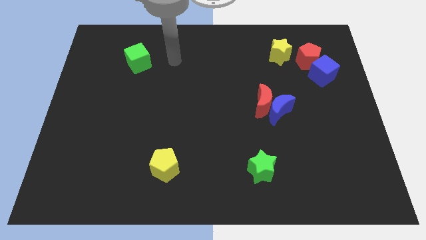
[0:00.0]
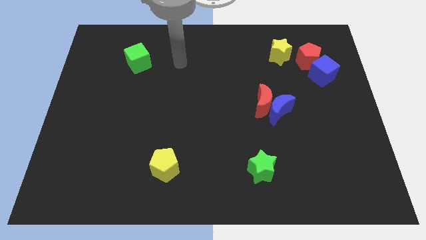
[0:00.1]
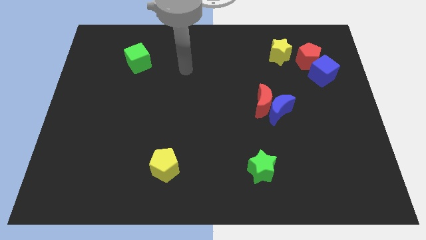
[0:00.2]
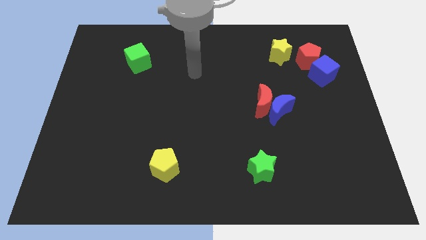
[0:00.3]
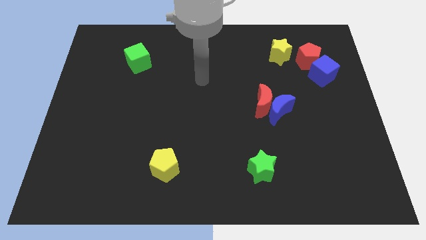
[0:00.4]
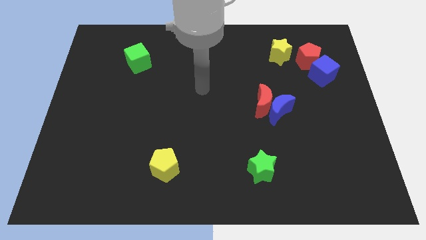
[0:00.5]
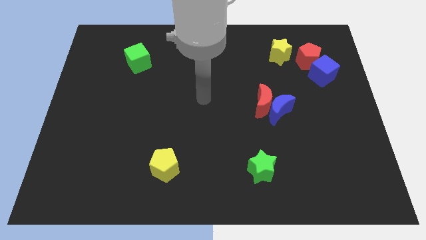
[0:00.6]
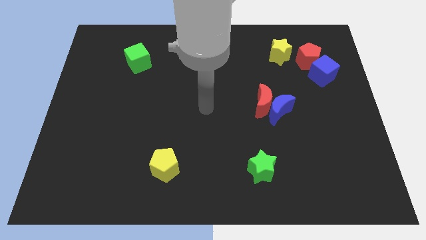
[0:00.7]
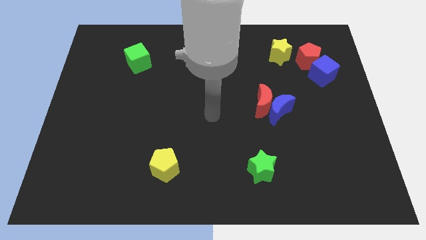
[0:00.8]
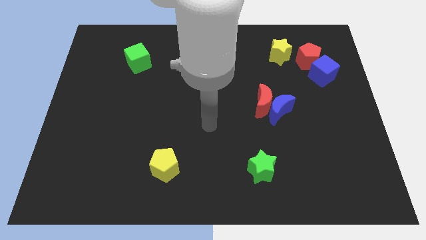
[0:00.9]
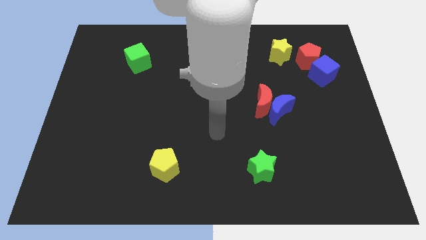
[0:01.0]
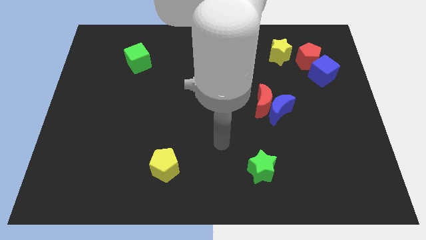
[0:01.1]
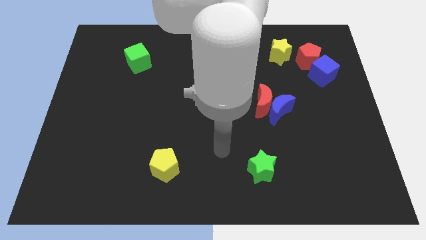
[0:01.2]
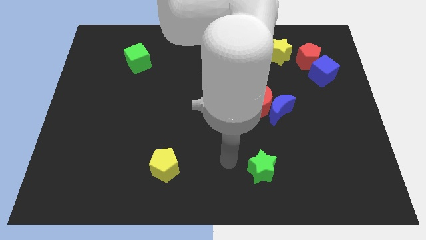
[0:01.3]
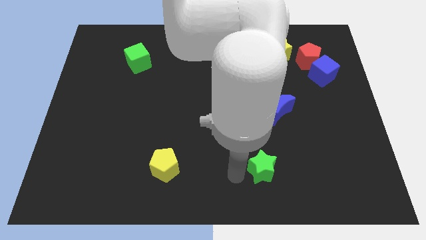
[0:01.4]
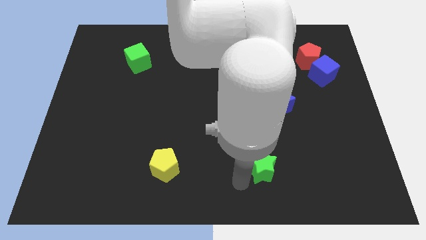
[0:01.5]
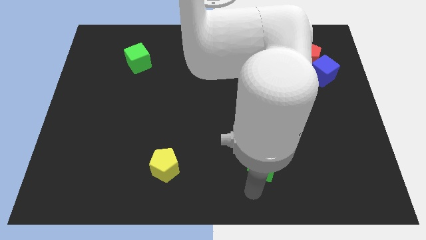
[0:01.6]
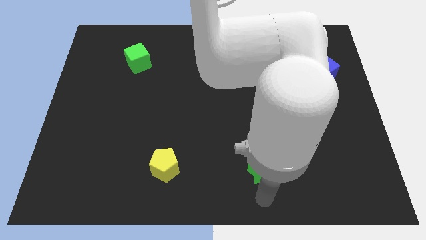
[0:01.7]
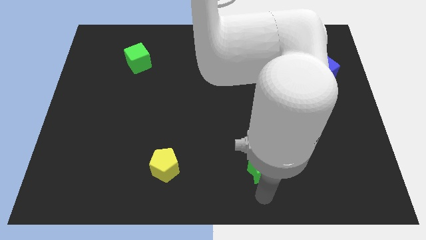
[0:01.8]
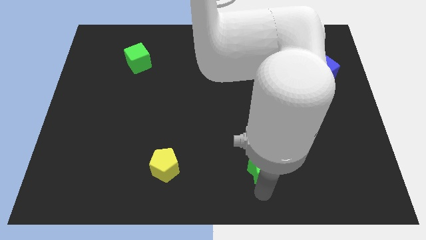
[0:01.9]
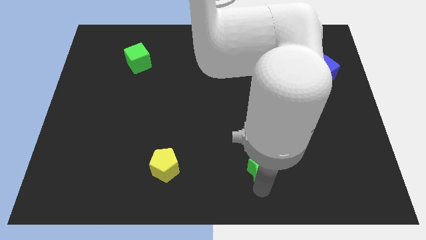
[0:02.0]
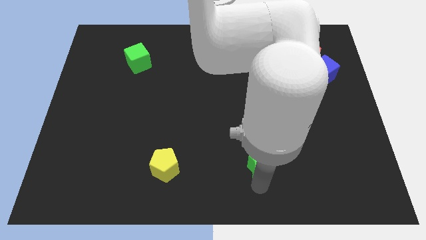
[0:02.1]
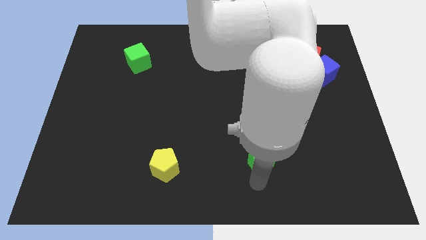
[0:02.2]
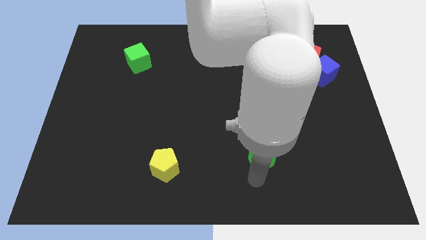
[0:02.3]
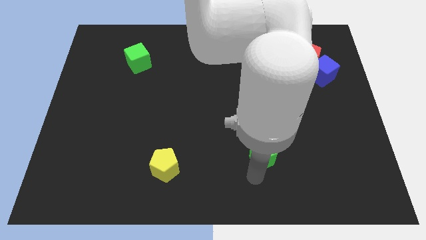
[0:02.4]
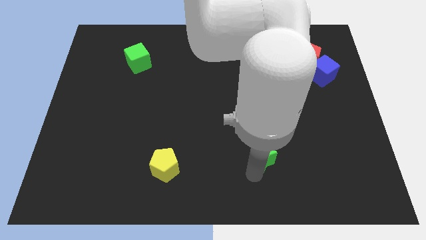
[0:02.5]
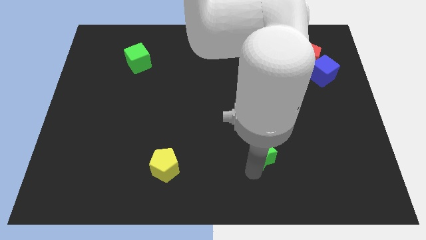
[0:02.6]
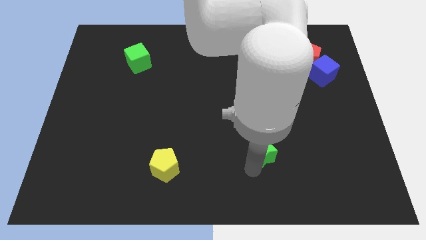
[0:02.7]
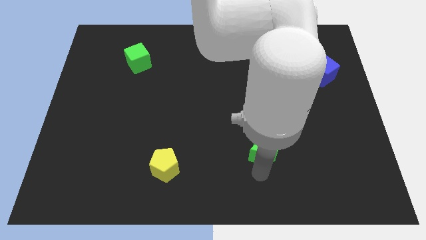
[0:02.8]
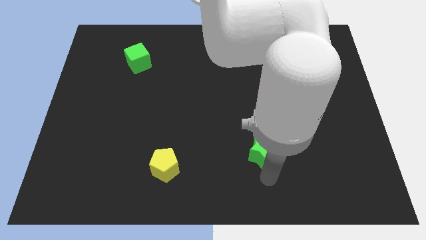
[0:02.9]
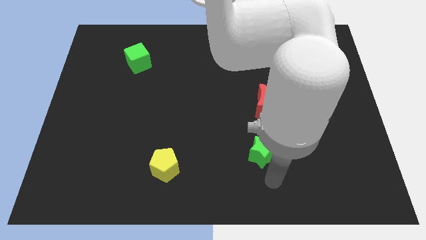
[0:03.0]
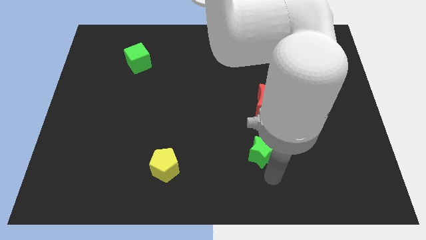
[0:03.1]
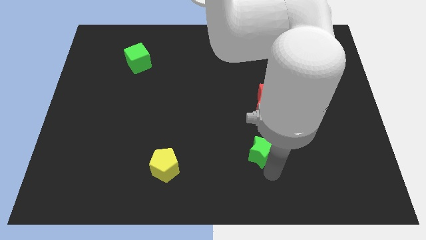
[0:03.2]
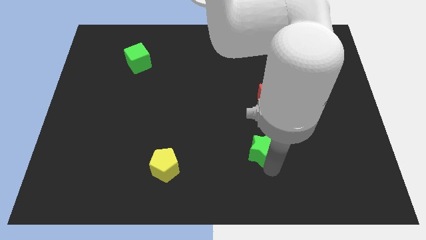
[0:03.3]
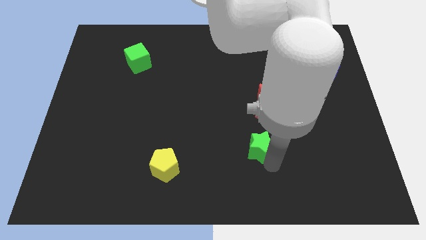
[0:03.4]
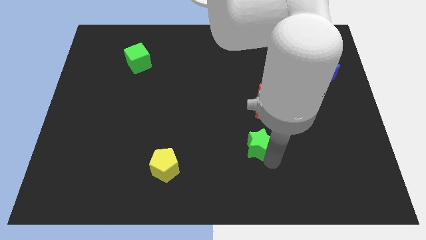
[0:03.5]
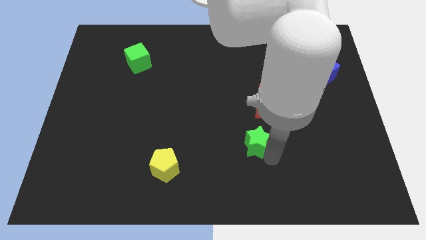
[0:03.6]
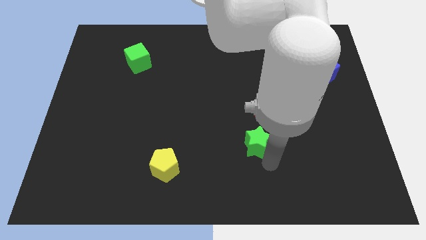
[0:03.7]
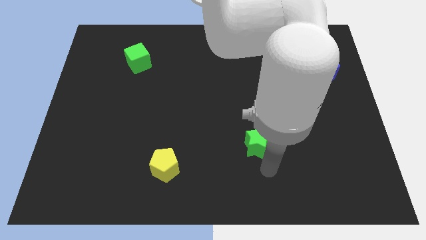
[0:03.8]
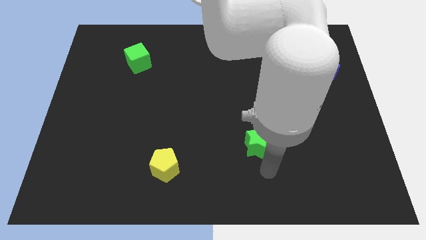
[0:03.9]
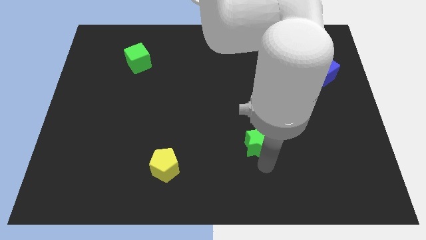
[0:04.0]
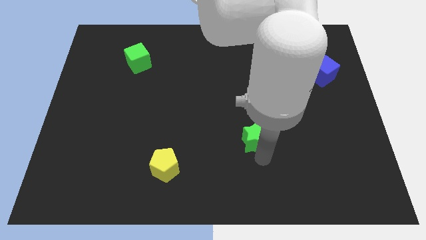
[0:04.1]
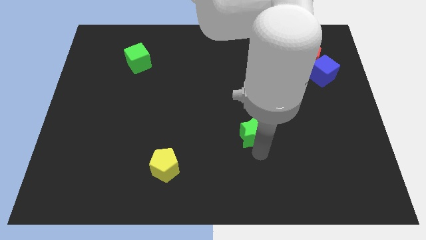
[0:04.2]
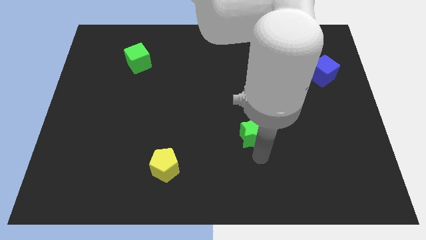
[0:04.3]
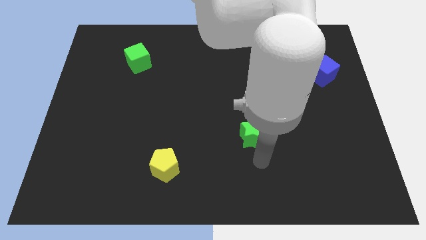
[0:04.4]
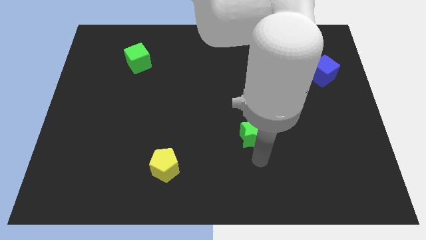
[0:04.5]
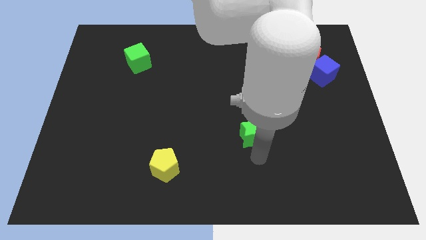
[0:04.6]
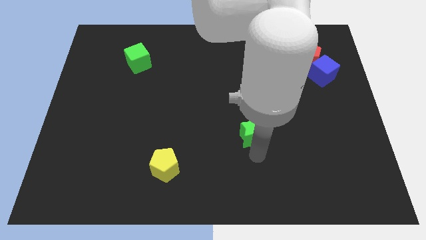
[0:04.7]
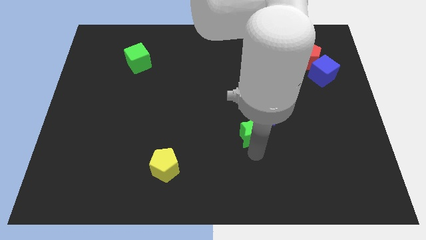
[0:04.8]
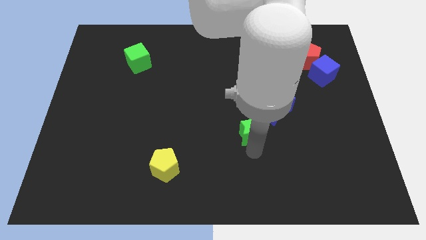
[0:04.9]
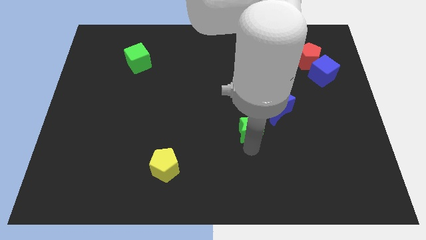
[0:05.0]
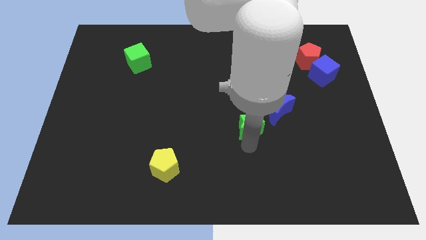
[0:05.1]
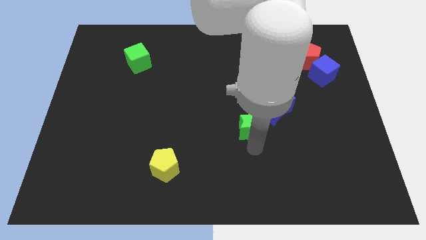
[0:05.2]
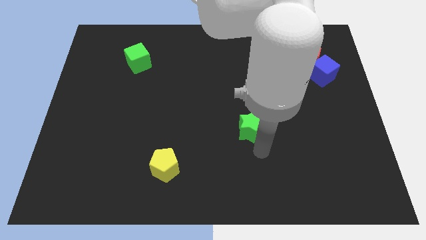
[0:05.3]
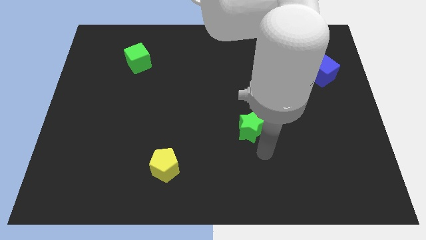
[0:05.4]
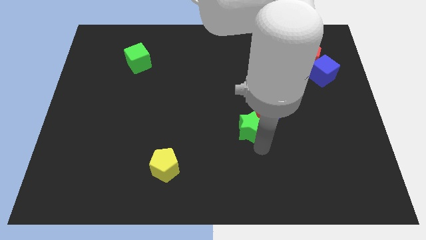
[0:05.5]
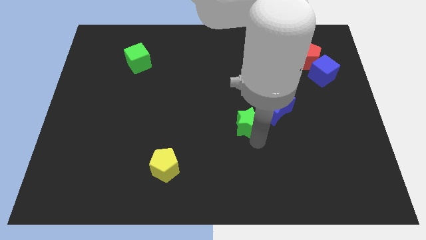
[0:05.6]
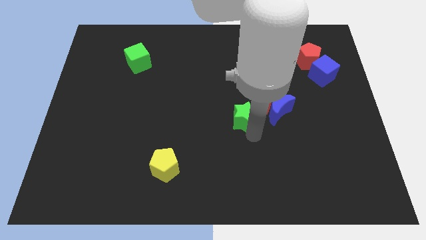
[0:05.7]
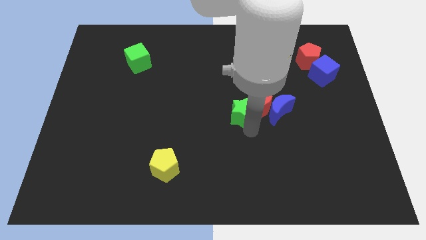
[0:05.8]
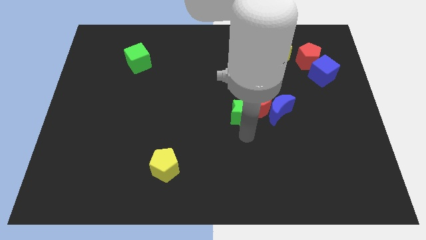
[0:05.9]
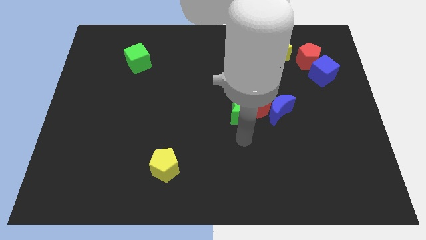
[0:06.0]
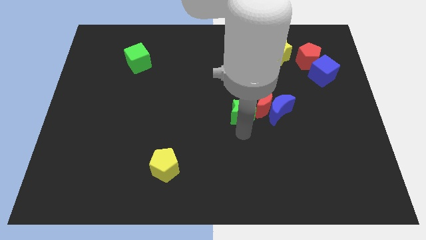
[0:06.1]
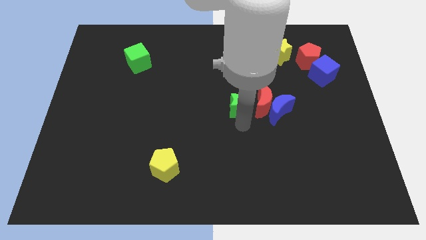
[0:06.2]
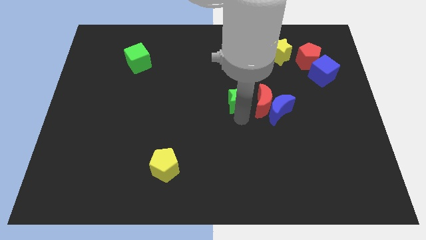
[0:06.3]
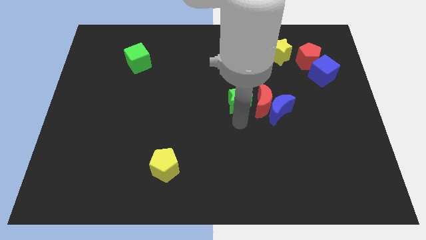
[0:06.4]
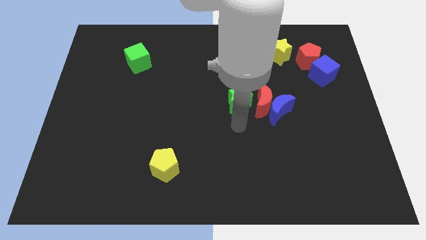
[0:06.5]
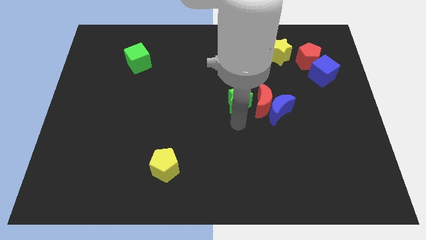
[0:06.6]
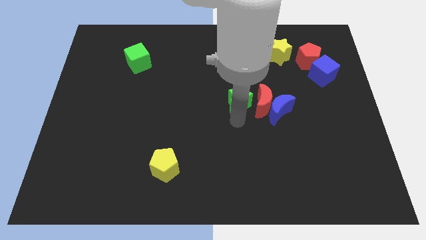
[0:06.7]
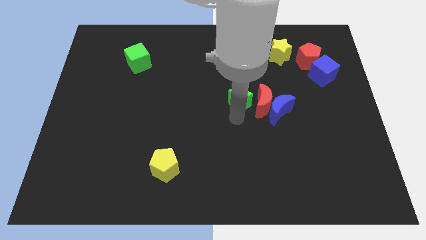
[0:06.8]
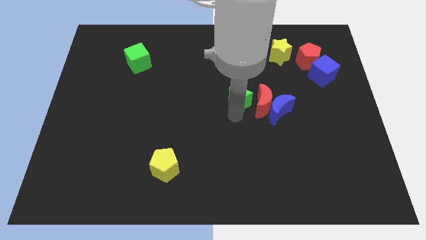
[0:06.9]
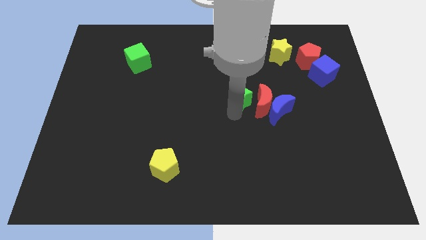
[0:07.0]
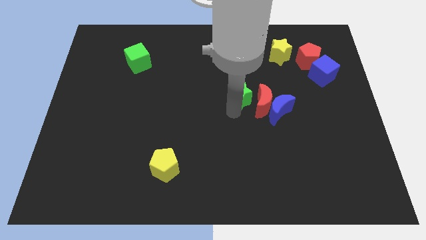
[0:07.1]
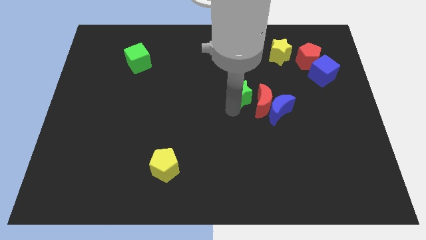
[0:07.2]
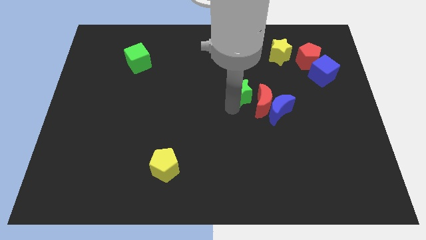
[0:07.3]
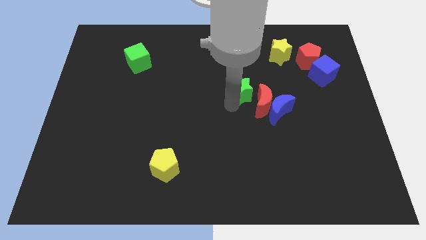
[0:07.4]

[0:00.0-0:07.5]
slide the green star upwards

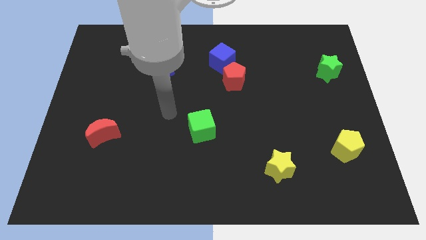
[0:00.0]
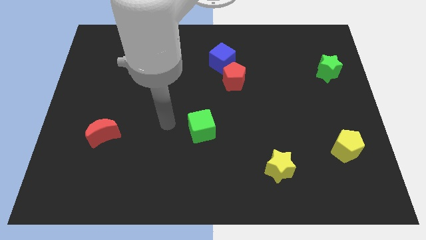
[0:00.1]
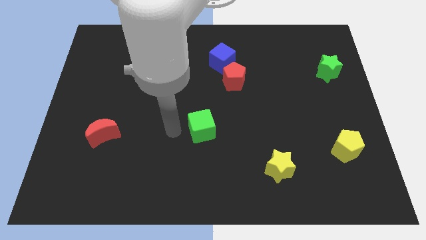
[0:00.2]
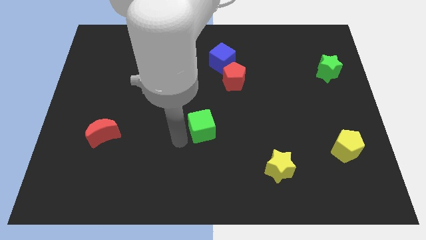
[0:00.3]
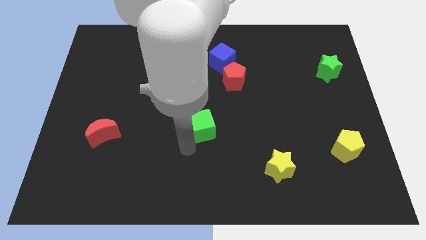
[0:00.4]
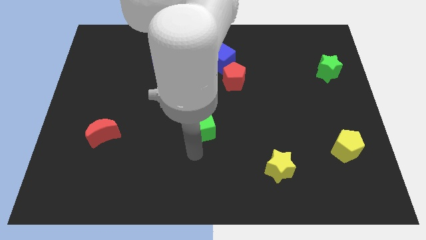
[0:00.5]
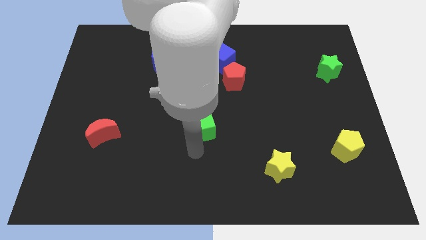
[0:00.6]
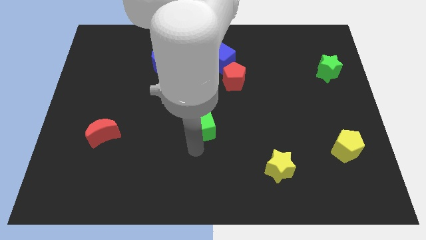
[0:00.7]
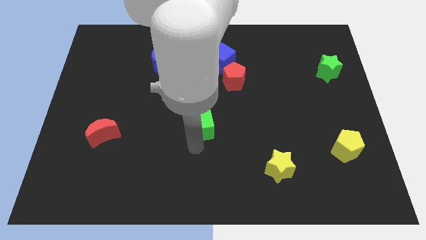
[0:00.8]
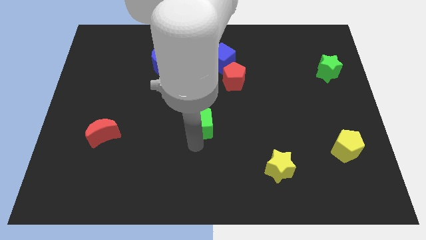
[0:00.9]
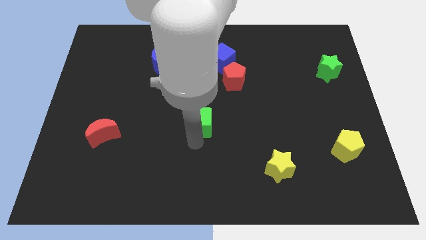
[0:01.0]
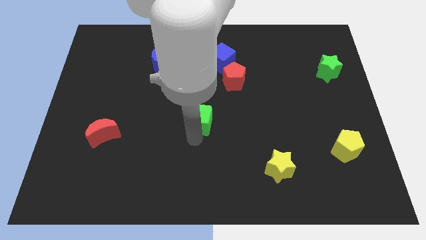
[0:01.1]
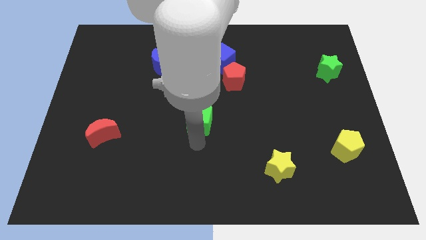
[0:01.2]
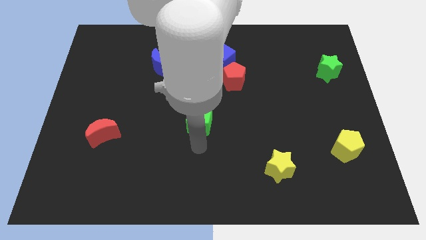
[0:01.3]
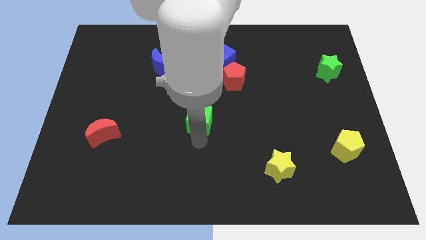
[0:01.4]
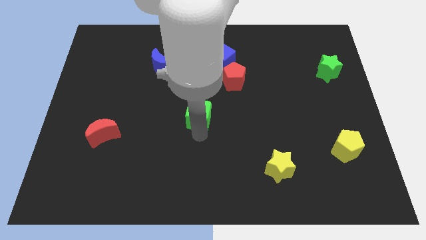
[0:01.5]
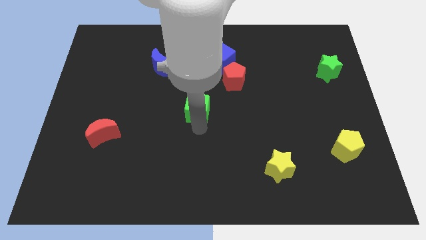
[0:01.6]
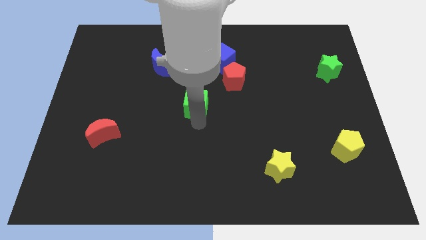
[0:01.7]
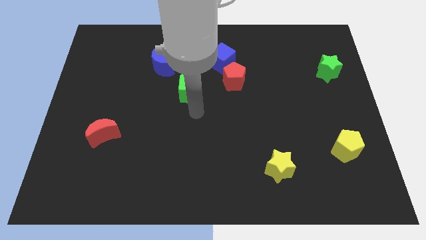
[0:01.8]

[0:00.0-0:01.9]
slide the green cube somewhat up
